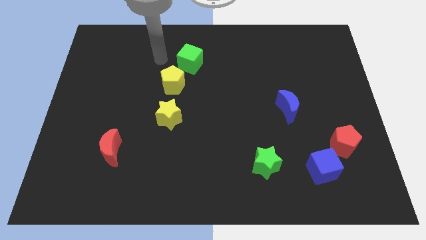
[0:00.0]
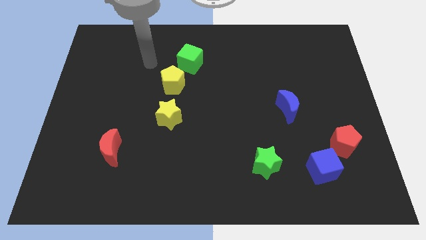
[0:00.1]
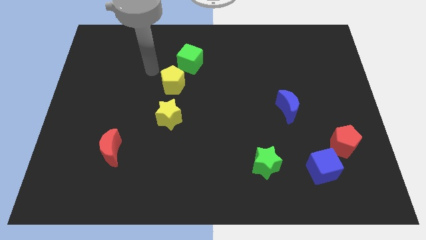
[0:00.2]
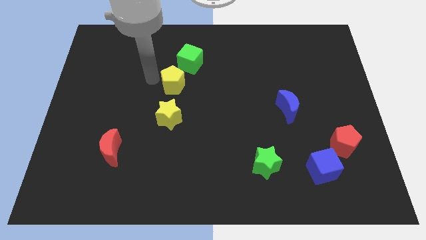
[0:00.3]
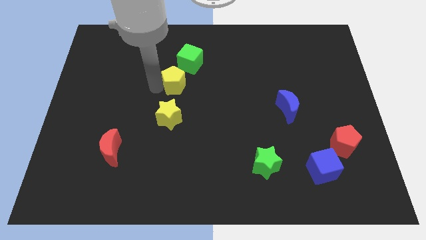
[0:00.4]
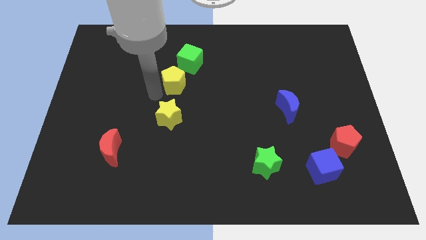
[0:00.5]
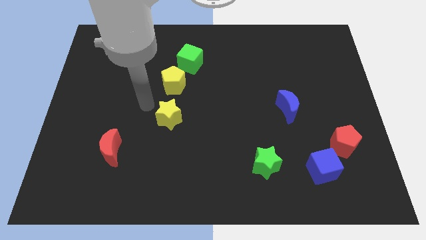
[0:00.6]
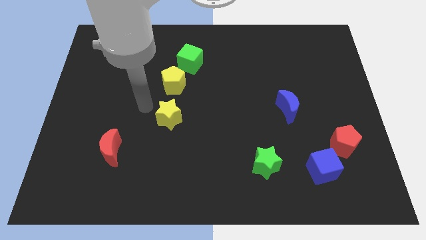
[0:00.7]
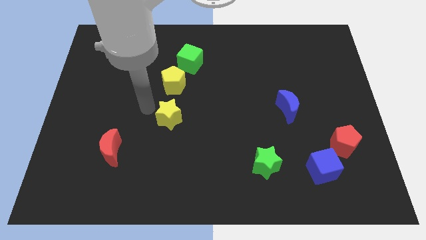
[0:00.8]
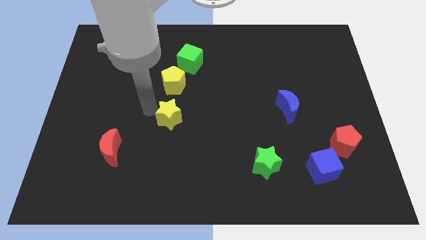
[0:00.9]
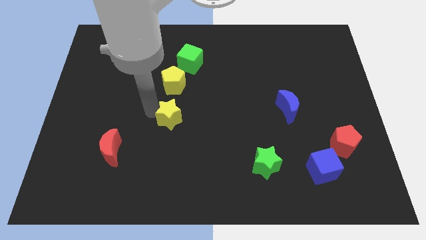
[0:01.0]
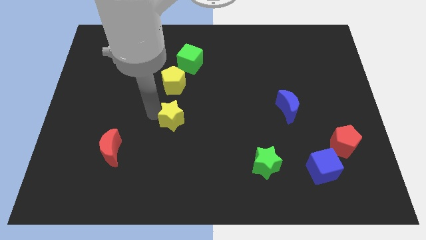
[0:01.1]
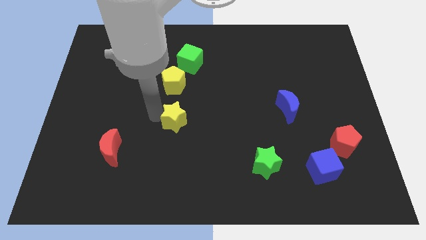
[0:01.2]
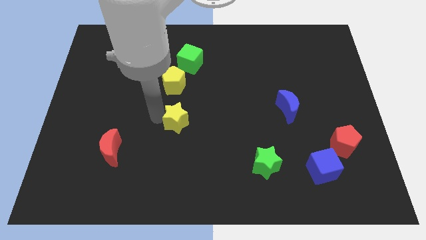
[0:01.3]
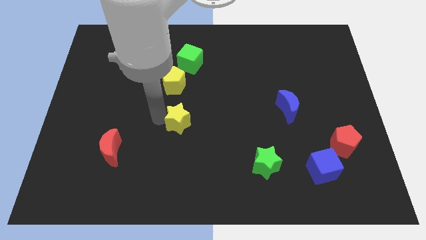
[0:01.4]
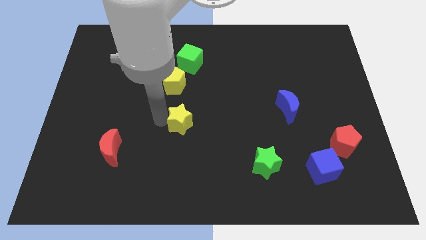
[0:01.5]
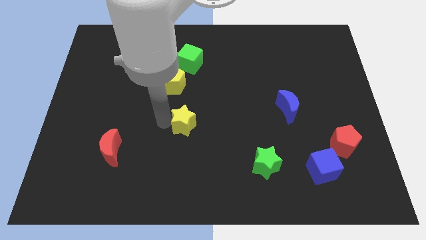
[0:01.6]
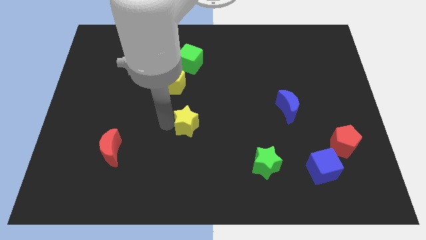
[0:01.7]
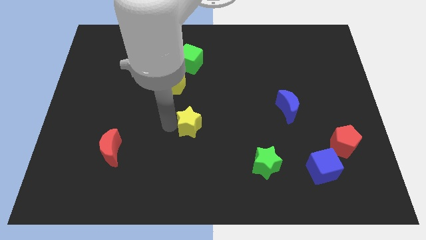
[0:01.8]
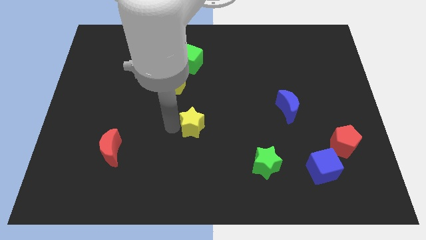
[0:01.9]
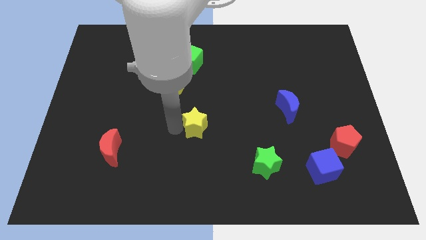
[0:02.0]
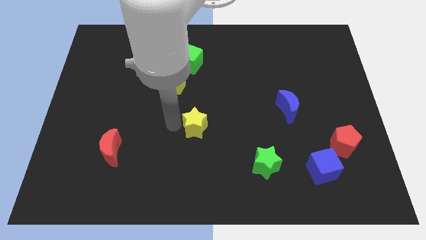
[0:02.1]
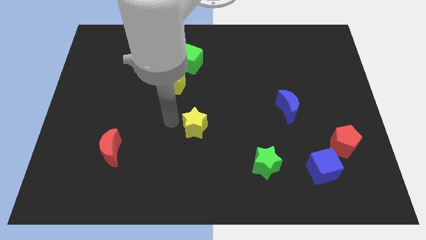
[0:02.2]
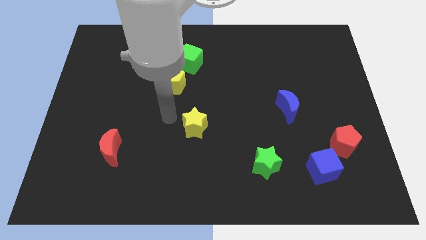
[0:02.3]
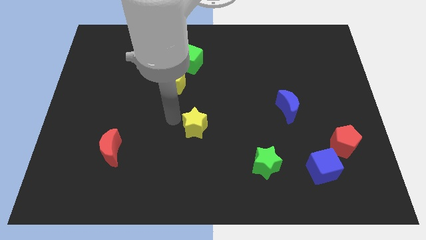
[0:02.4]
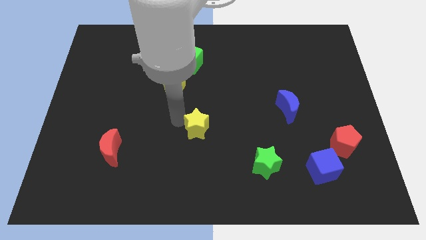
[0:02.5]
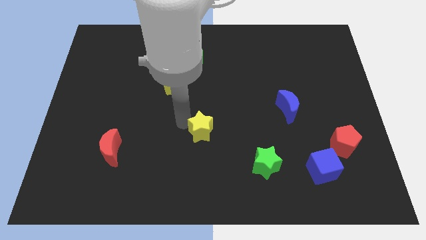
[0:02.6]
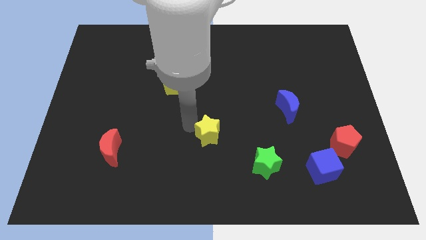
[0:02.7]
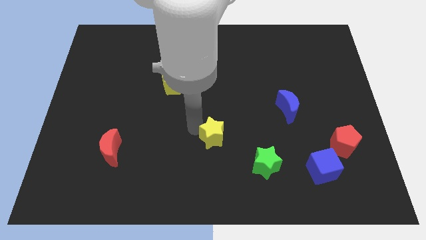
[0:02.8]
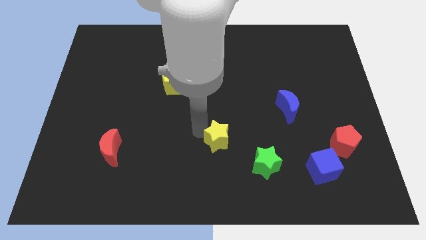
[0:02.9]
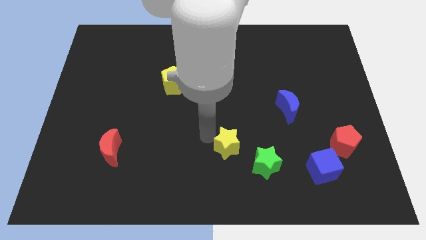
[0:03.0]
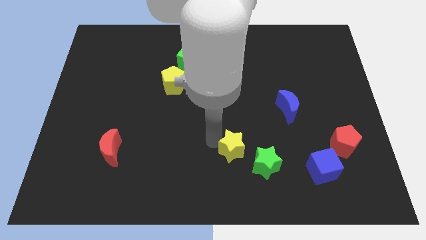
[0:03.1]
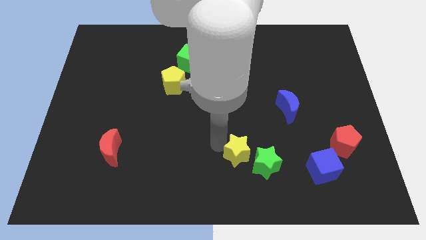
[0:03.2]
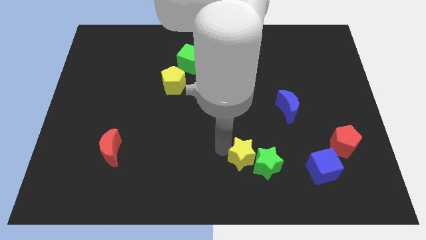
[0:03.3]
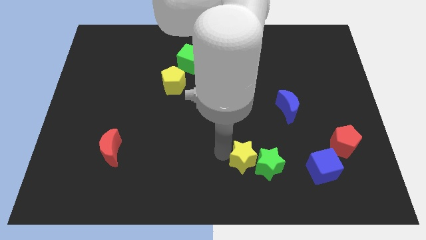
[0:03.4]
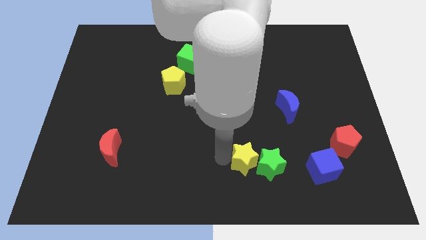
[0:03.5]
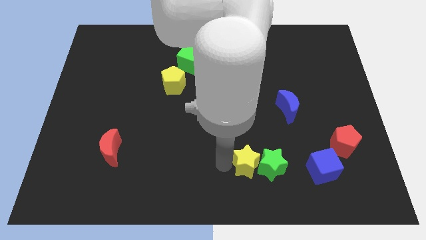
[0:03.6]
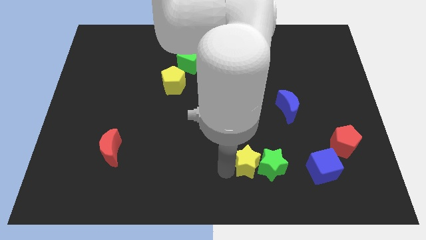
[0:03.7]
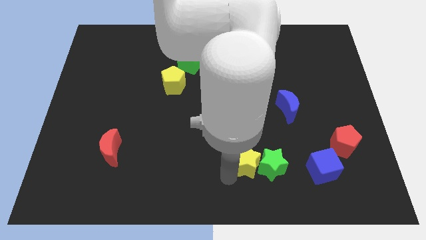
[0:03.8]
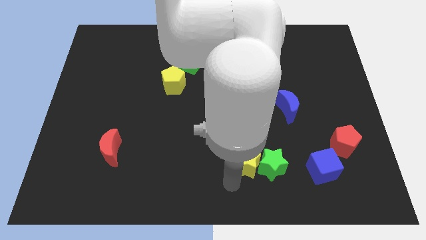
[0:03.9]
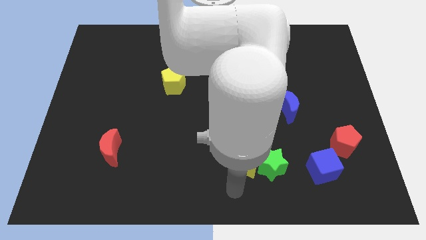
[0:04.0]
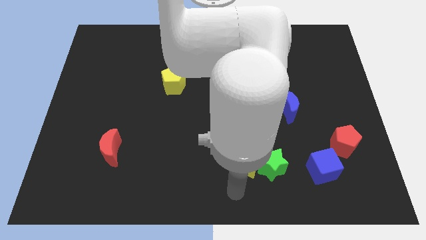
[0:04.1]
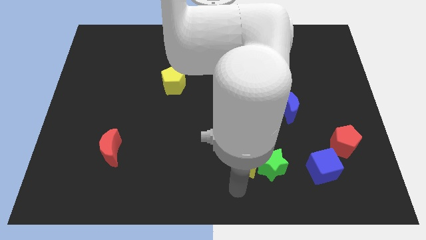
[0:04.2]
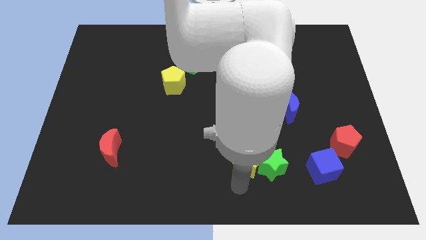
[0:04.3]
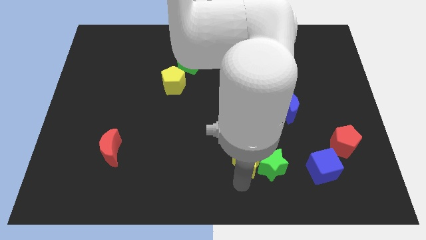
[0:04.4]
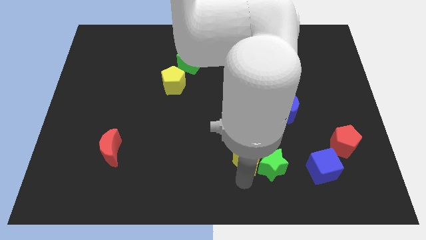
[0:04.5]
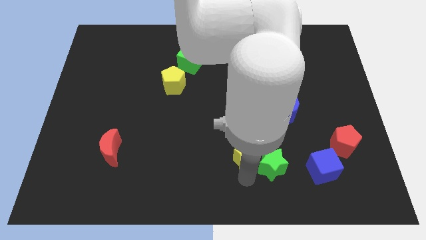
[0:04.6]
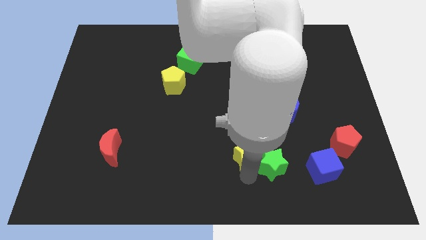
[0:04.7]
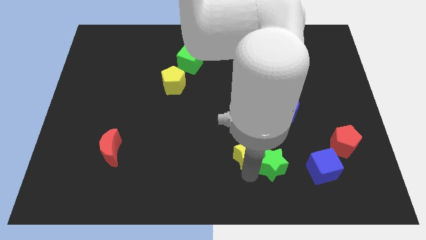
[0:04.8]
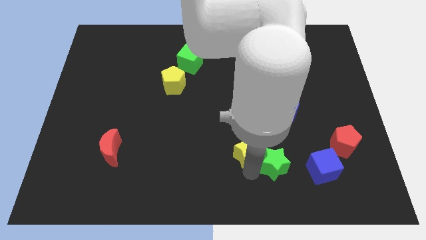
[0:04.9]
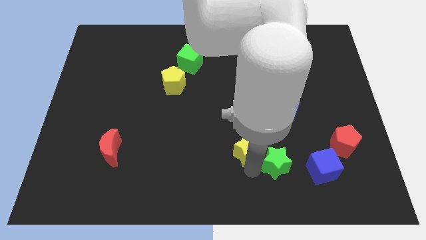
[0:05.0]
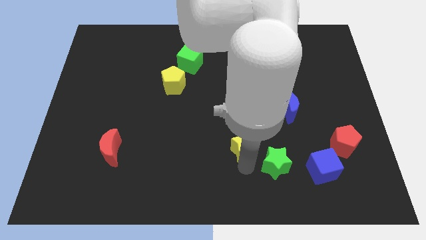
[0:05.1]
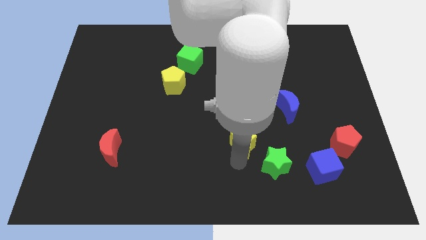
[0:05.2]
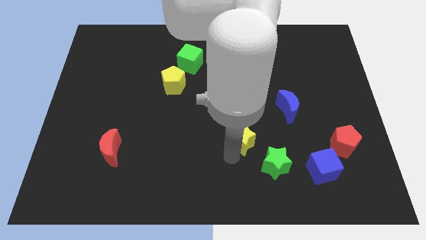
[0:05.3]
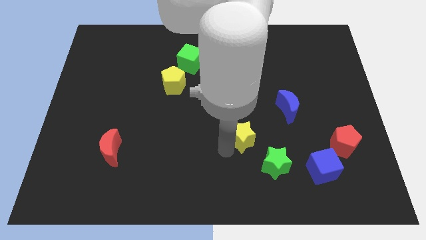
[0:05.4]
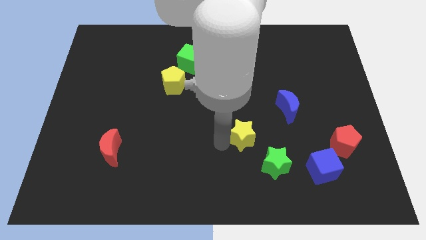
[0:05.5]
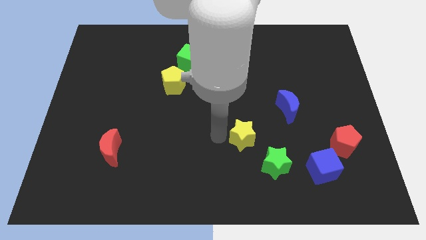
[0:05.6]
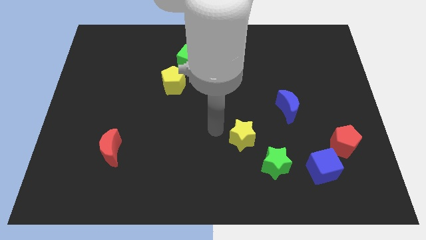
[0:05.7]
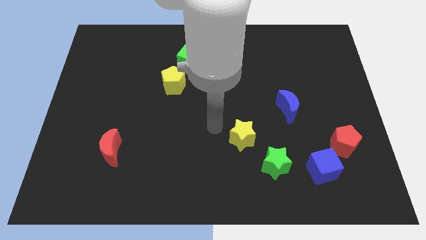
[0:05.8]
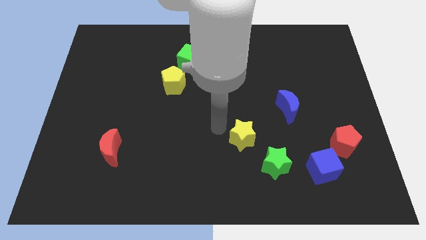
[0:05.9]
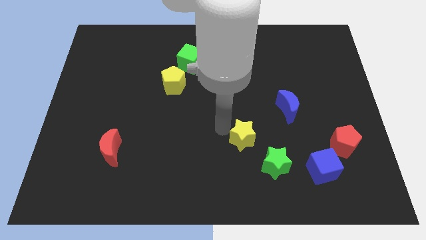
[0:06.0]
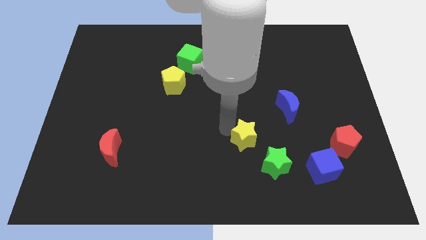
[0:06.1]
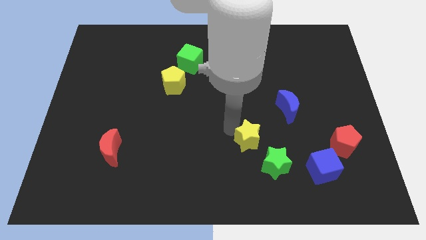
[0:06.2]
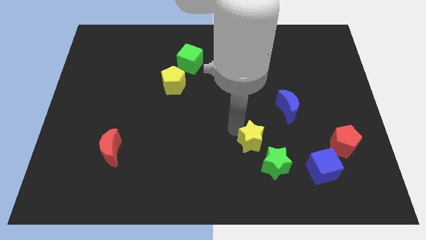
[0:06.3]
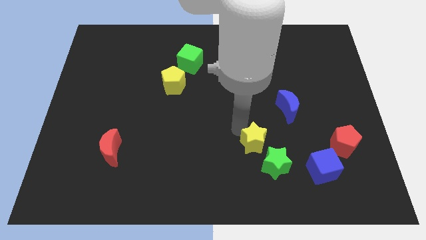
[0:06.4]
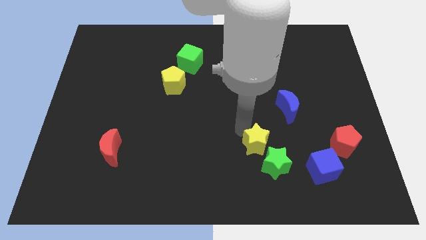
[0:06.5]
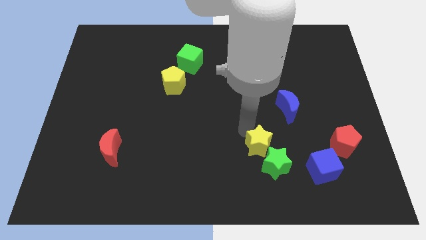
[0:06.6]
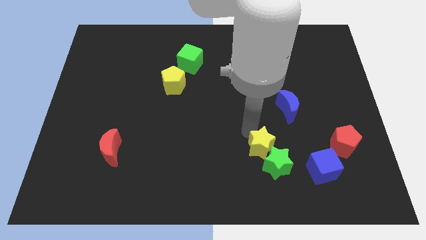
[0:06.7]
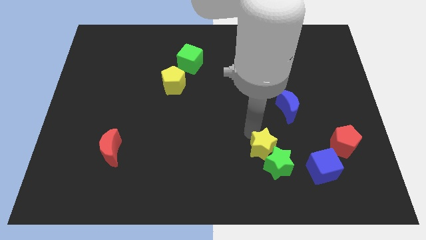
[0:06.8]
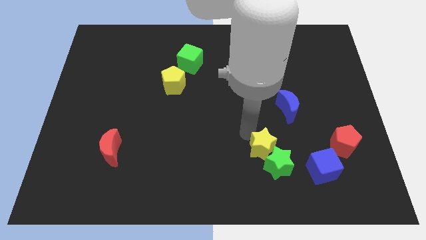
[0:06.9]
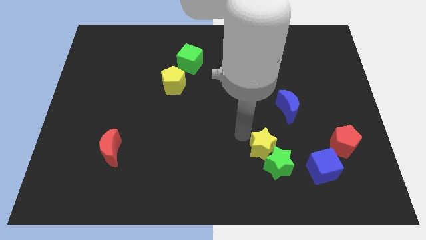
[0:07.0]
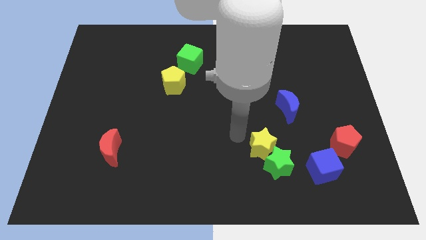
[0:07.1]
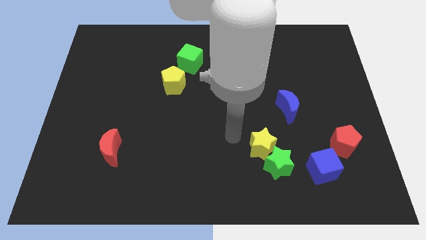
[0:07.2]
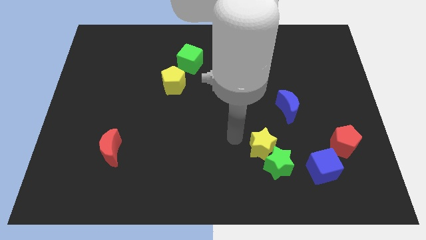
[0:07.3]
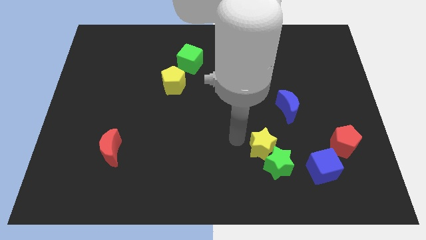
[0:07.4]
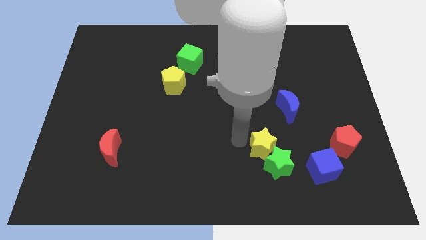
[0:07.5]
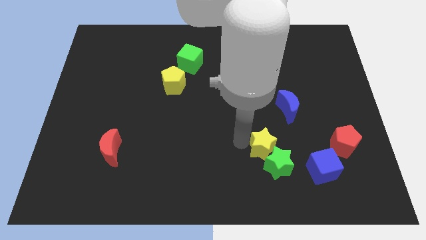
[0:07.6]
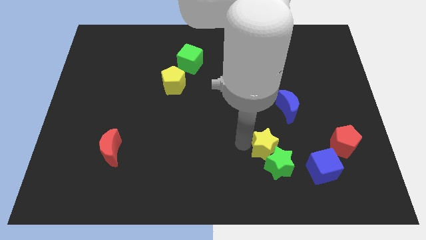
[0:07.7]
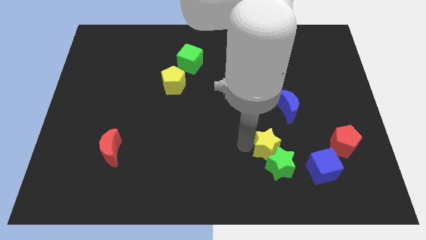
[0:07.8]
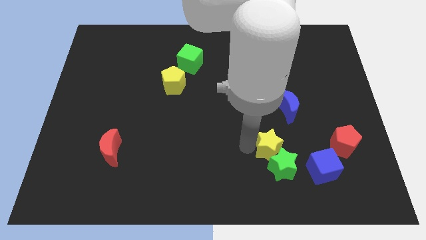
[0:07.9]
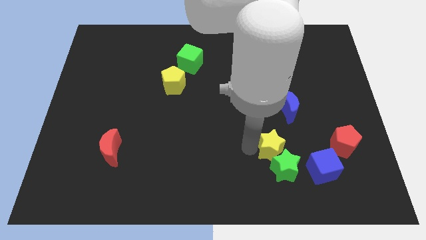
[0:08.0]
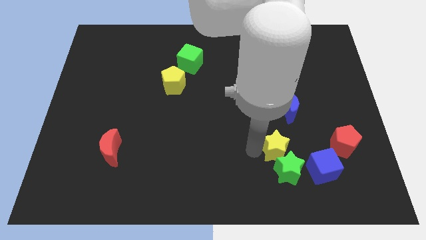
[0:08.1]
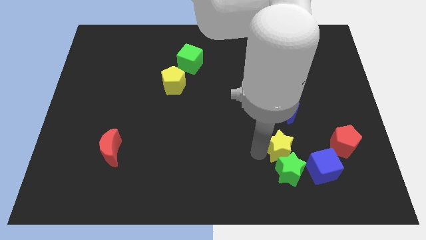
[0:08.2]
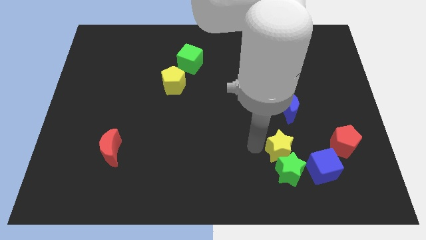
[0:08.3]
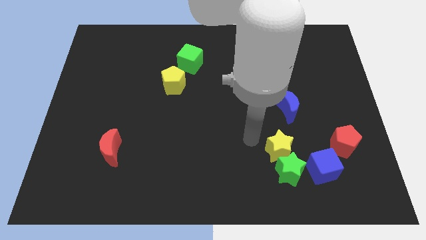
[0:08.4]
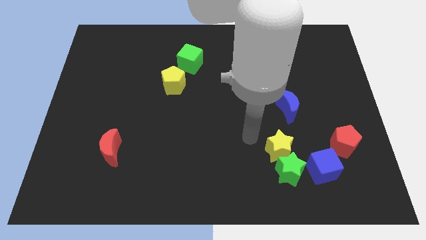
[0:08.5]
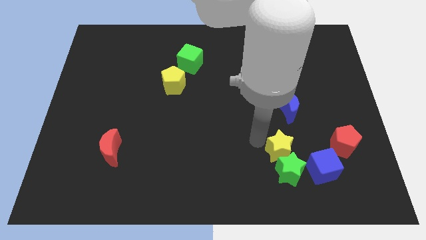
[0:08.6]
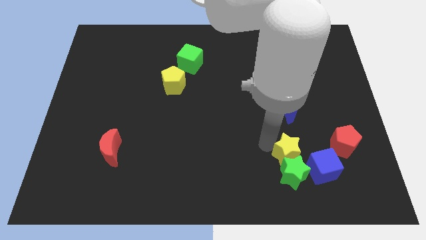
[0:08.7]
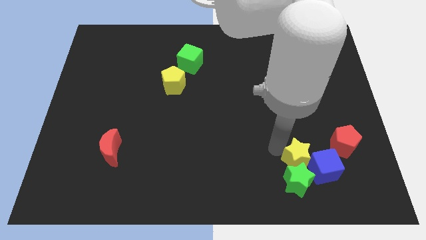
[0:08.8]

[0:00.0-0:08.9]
put the yellow star close to the blue cube
